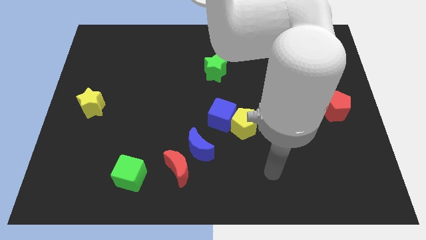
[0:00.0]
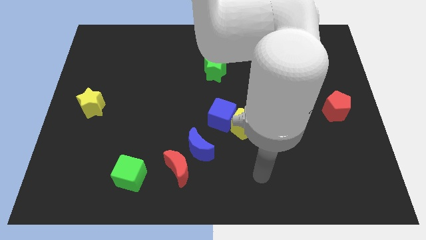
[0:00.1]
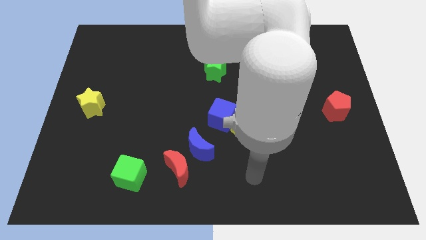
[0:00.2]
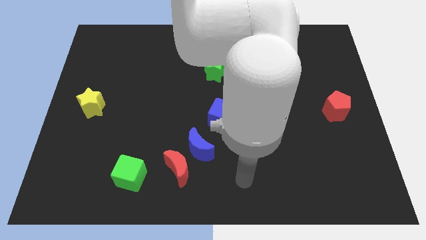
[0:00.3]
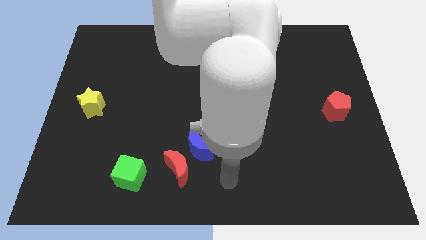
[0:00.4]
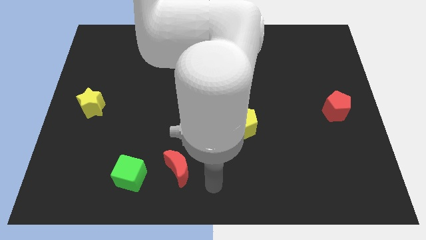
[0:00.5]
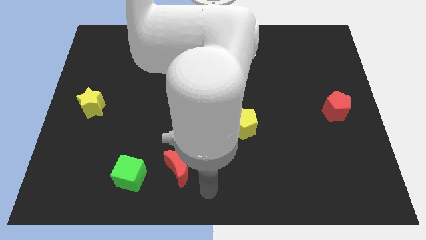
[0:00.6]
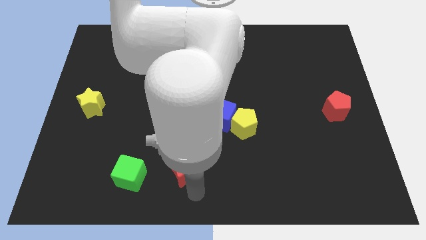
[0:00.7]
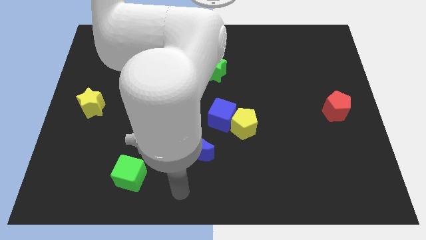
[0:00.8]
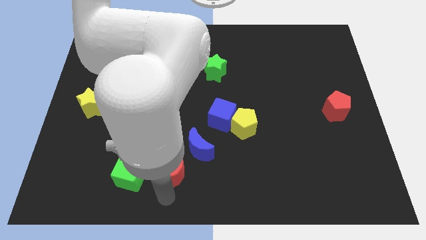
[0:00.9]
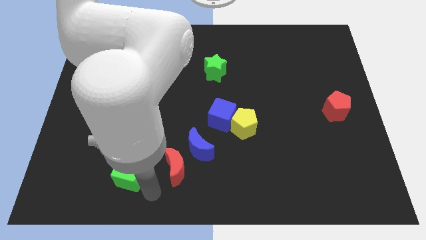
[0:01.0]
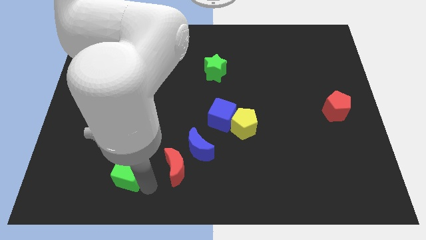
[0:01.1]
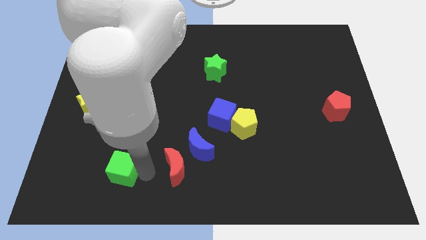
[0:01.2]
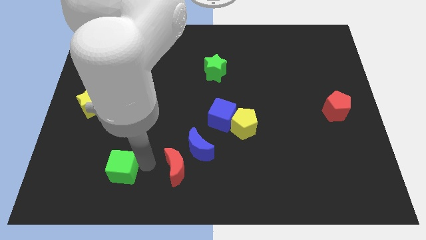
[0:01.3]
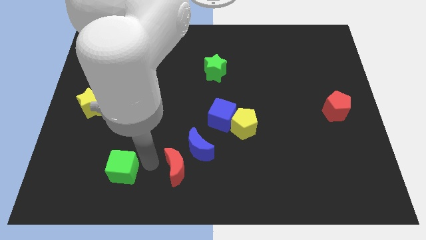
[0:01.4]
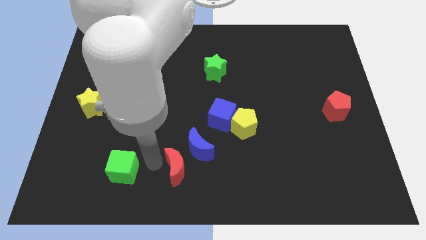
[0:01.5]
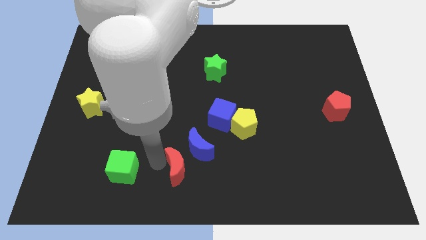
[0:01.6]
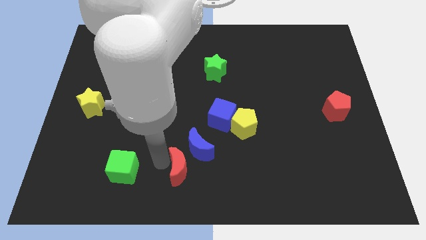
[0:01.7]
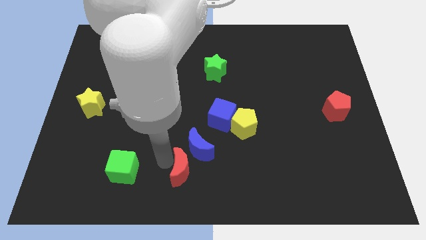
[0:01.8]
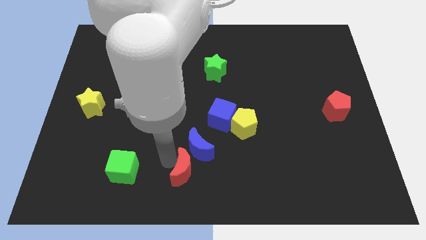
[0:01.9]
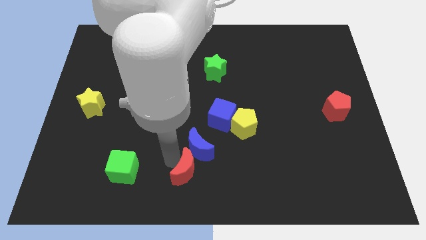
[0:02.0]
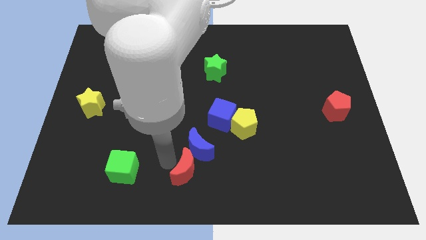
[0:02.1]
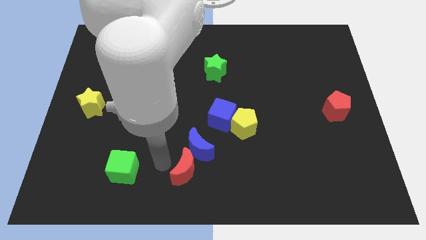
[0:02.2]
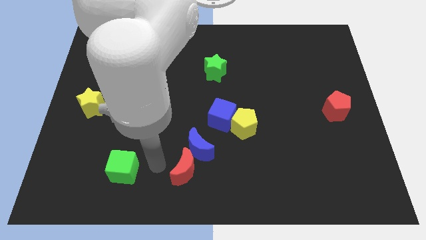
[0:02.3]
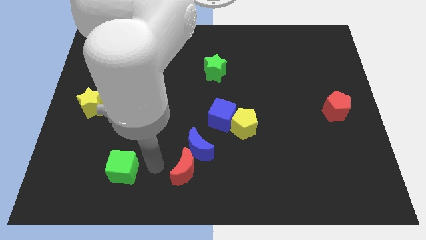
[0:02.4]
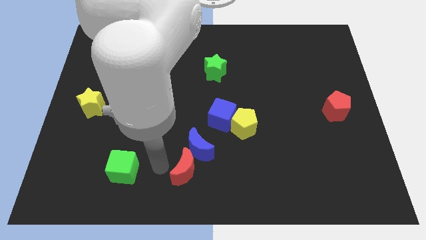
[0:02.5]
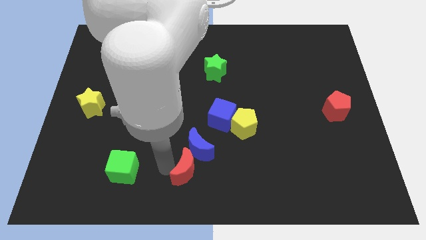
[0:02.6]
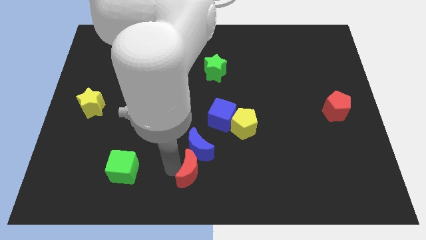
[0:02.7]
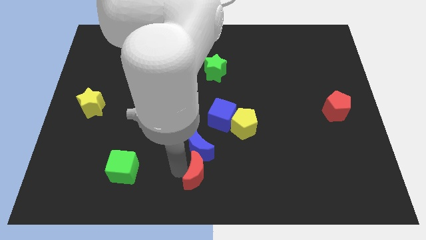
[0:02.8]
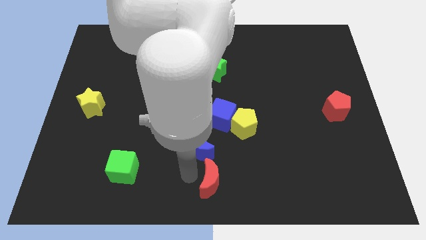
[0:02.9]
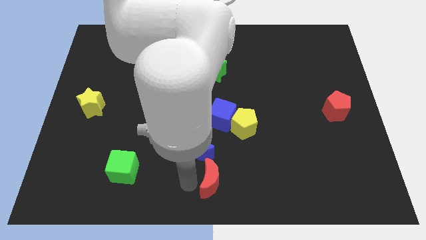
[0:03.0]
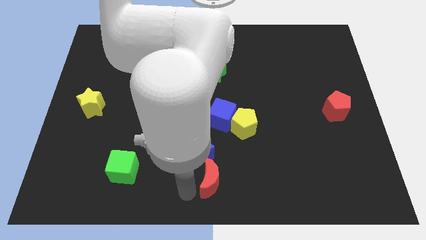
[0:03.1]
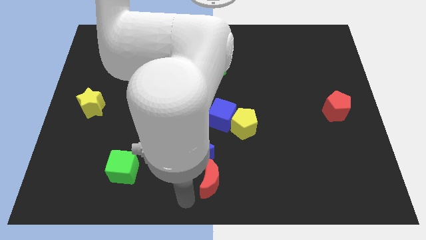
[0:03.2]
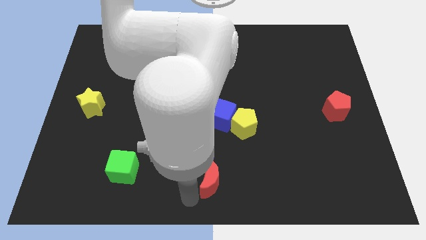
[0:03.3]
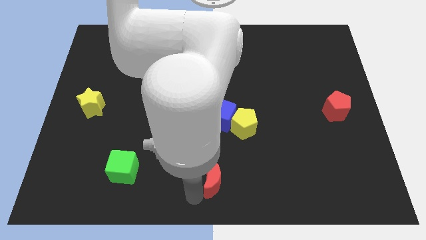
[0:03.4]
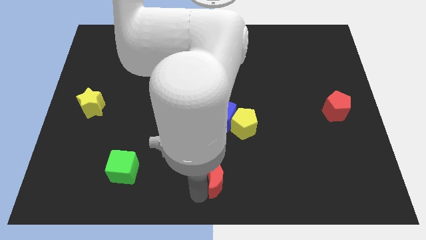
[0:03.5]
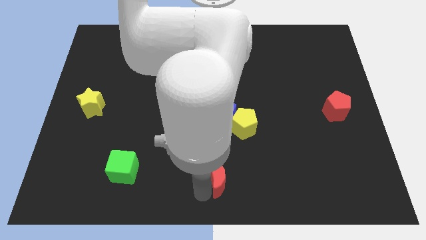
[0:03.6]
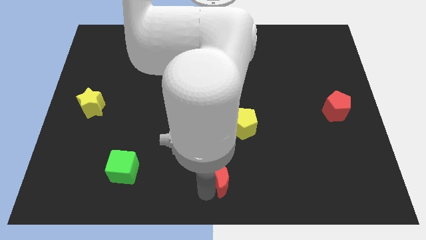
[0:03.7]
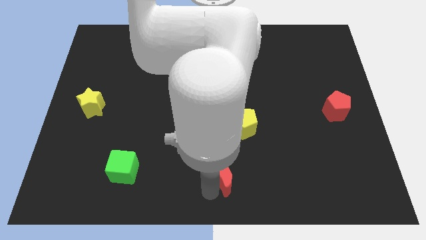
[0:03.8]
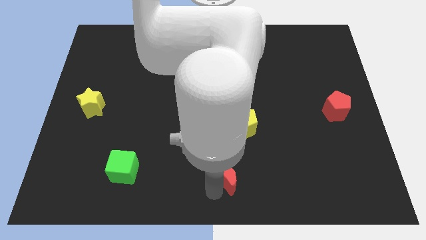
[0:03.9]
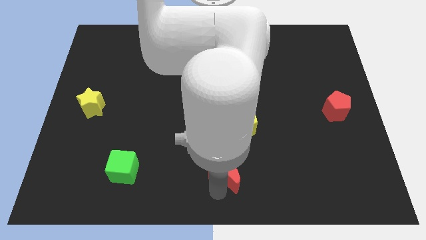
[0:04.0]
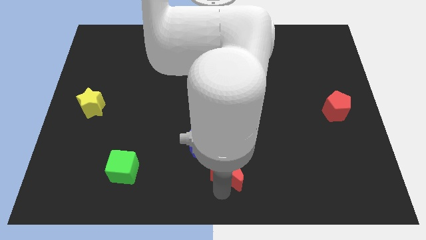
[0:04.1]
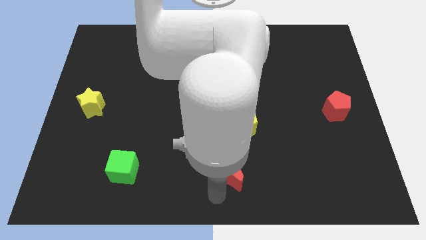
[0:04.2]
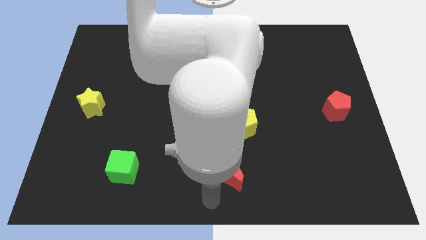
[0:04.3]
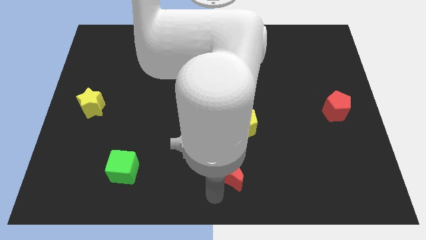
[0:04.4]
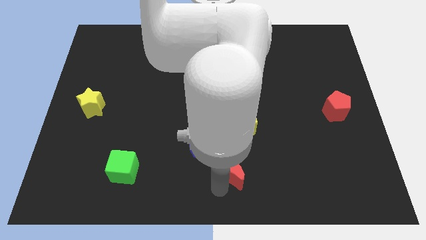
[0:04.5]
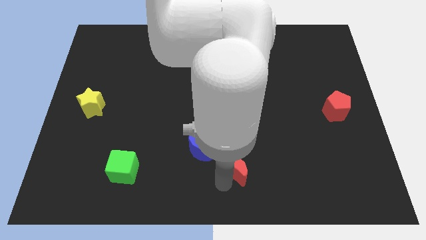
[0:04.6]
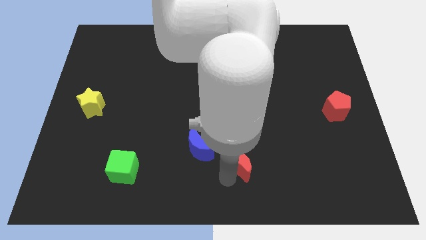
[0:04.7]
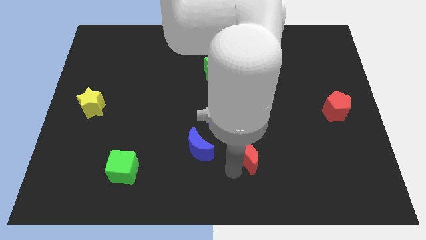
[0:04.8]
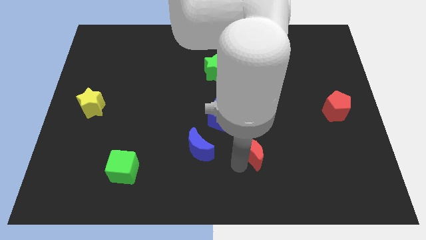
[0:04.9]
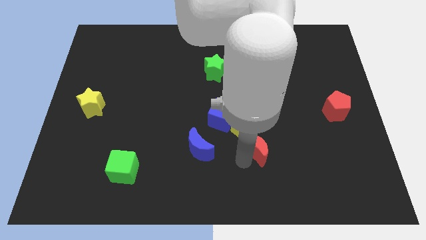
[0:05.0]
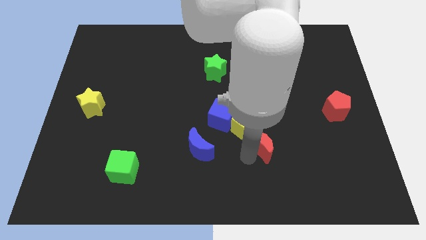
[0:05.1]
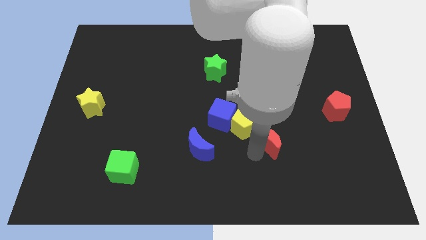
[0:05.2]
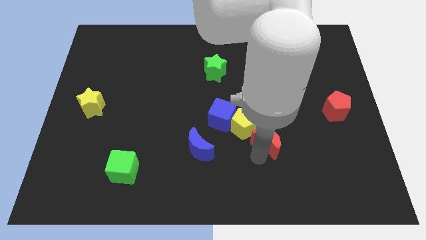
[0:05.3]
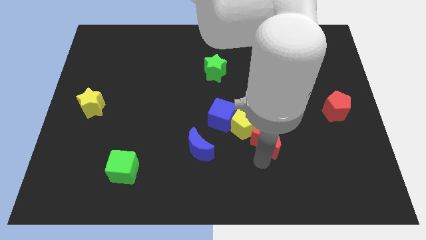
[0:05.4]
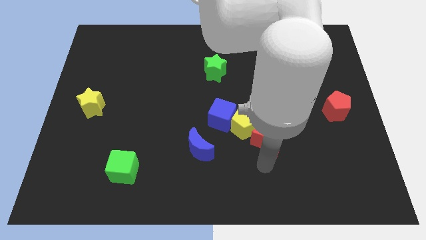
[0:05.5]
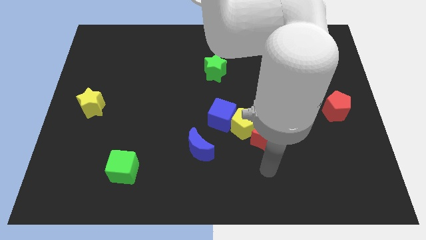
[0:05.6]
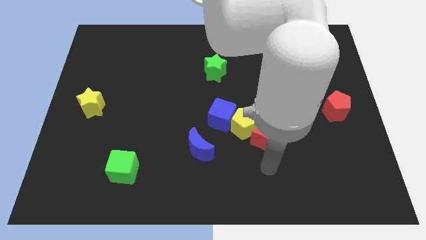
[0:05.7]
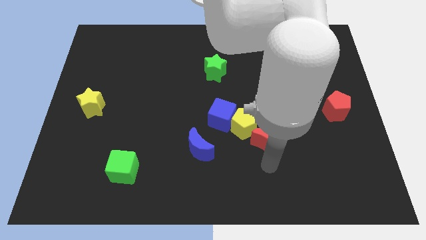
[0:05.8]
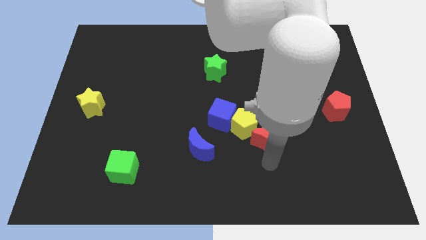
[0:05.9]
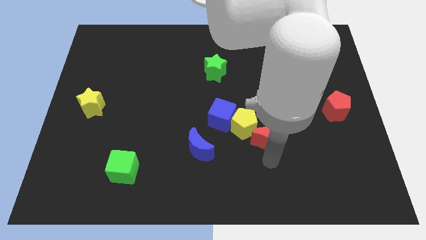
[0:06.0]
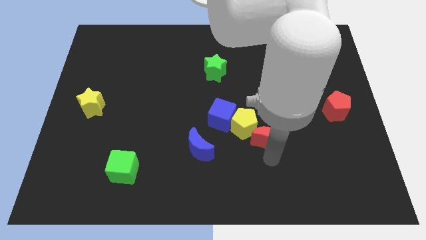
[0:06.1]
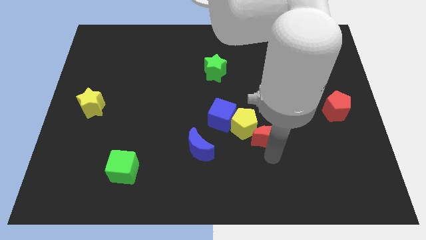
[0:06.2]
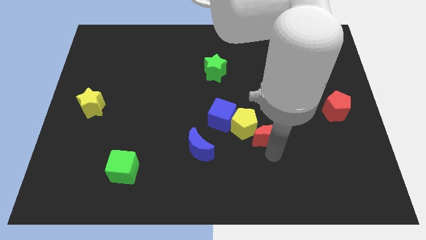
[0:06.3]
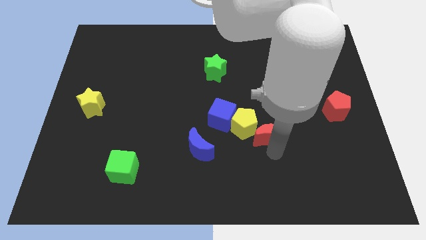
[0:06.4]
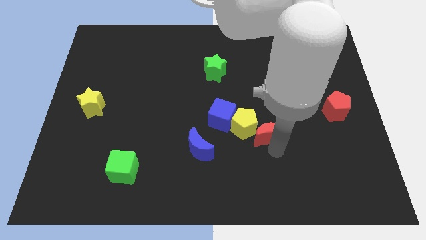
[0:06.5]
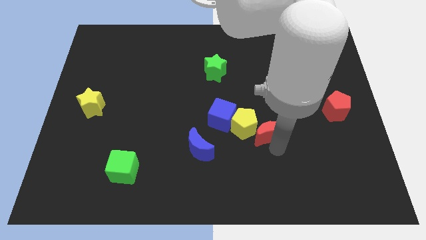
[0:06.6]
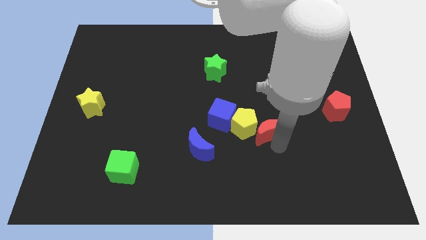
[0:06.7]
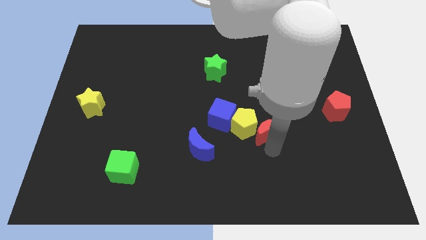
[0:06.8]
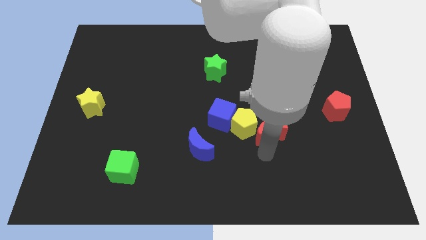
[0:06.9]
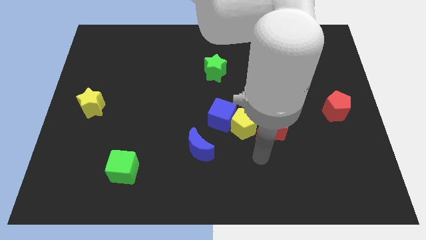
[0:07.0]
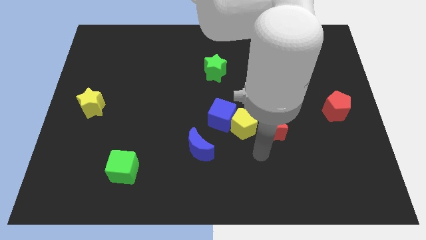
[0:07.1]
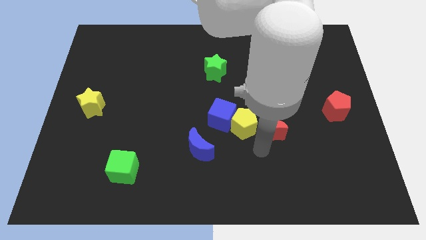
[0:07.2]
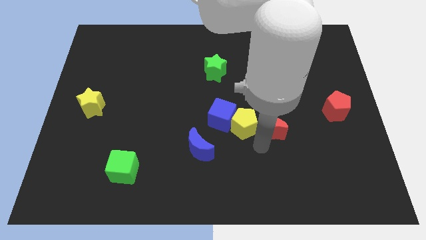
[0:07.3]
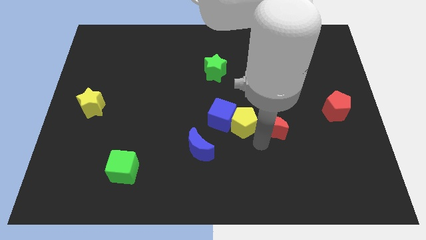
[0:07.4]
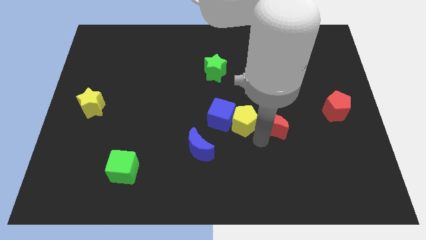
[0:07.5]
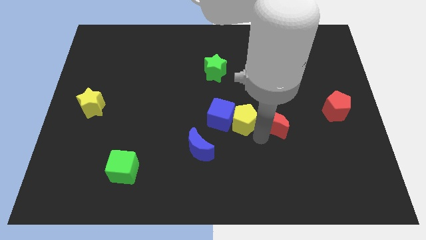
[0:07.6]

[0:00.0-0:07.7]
push the red moon diagonally up and to the right

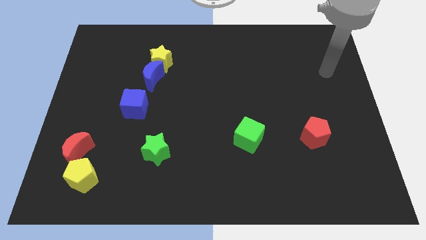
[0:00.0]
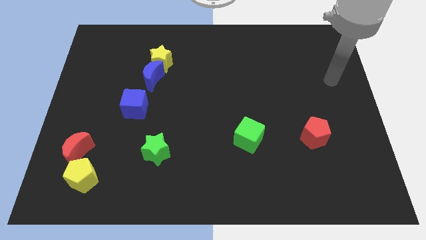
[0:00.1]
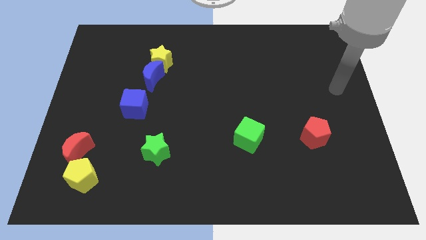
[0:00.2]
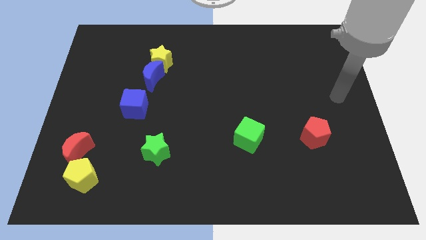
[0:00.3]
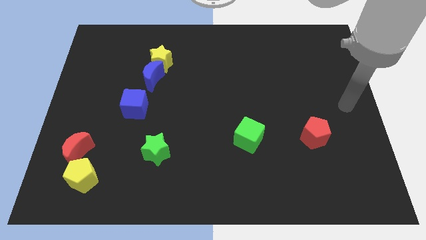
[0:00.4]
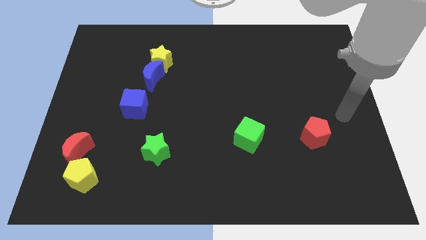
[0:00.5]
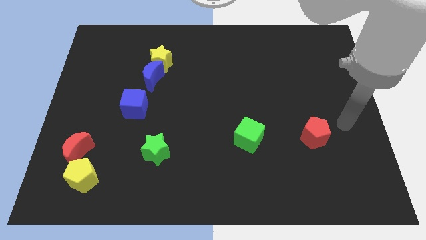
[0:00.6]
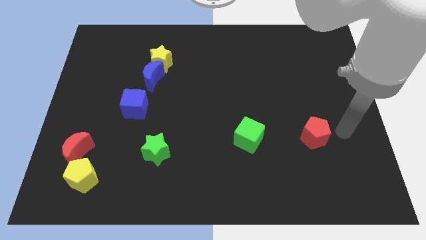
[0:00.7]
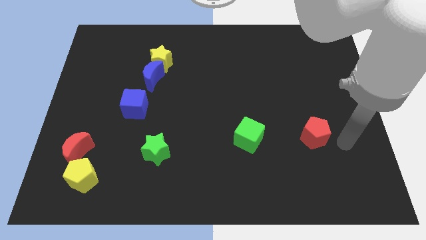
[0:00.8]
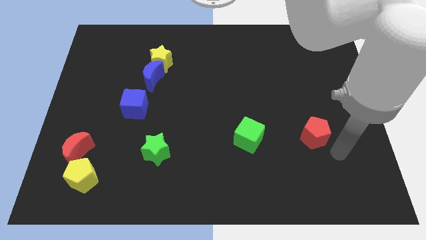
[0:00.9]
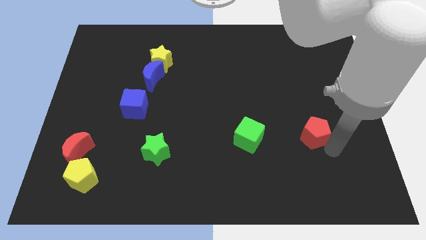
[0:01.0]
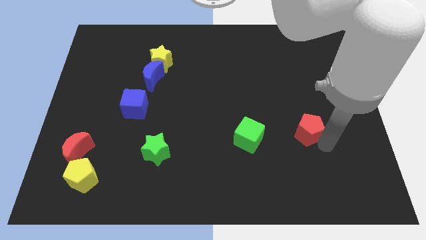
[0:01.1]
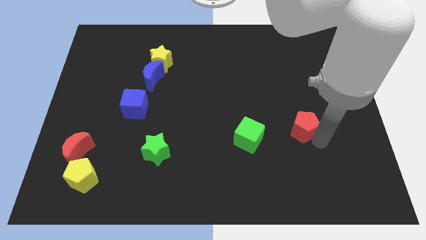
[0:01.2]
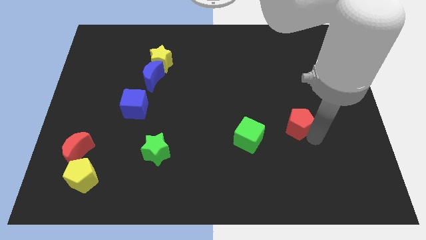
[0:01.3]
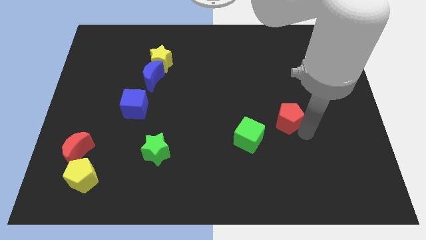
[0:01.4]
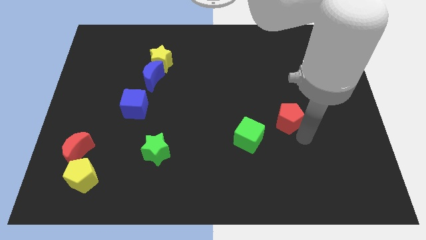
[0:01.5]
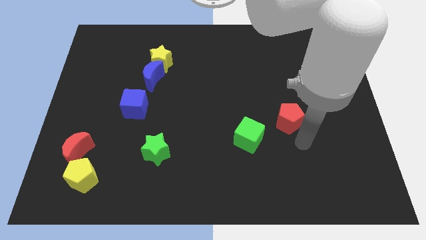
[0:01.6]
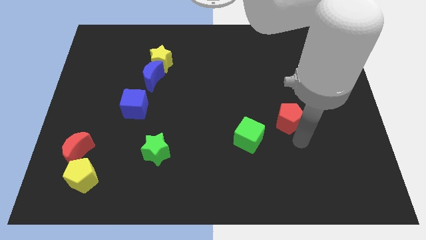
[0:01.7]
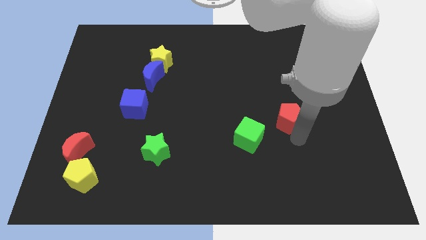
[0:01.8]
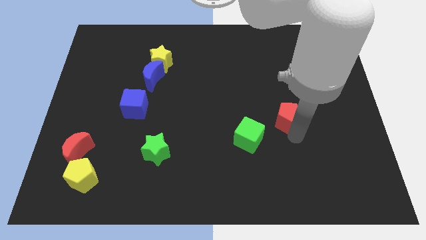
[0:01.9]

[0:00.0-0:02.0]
slide the red pentagon upwards and then to the left a little
